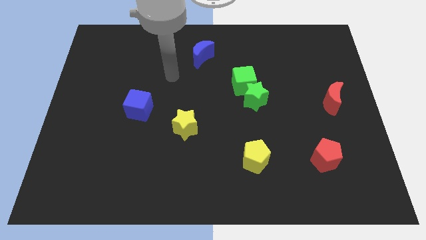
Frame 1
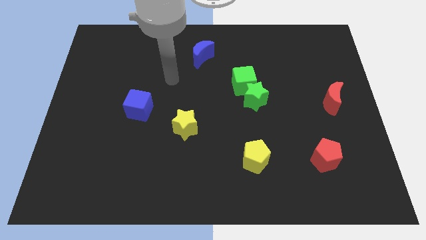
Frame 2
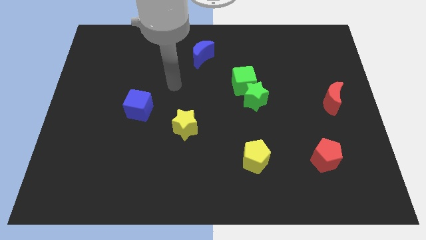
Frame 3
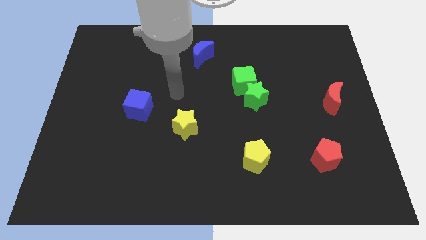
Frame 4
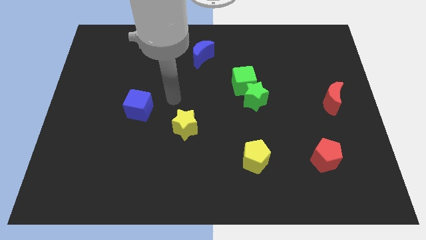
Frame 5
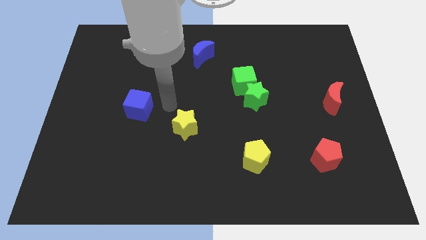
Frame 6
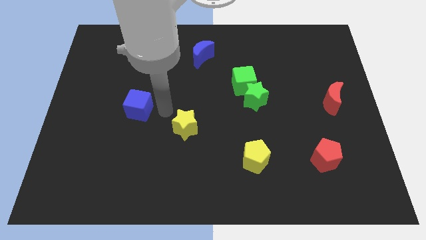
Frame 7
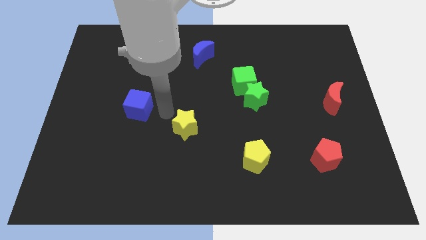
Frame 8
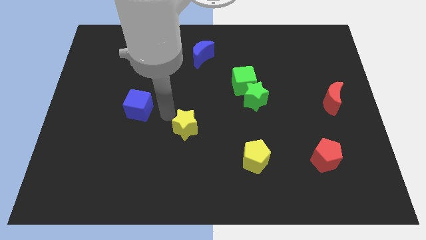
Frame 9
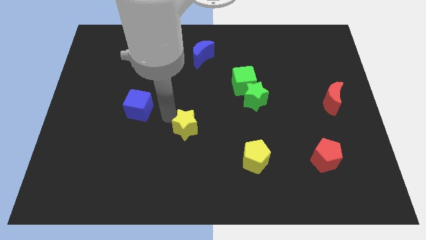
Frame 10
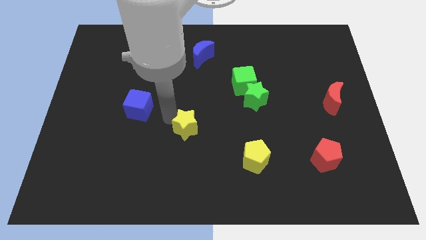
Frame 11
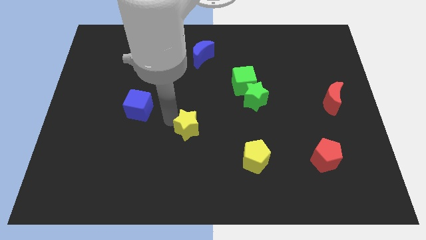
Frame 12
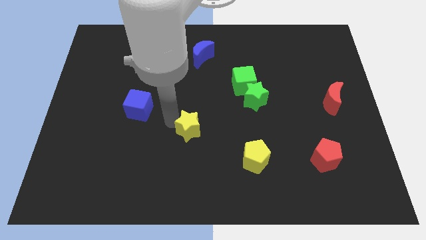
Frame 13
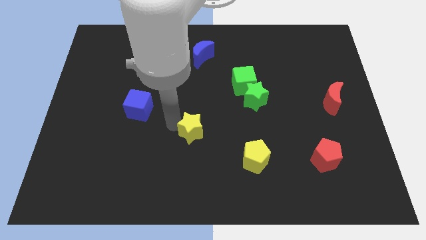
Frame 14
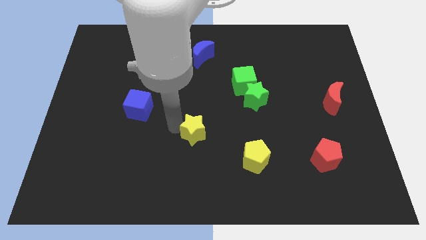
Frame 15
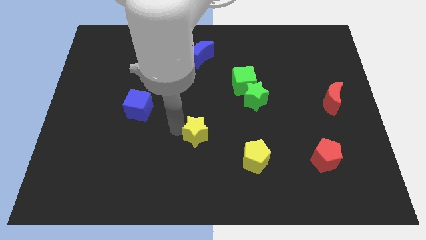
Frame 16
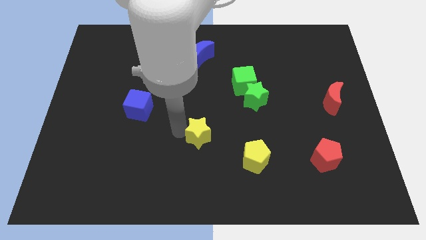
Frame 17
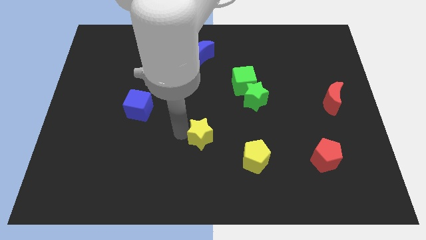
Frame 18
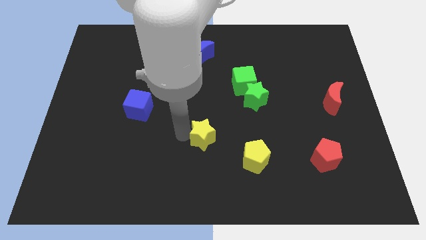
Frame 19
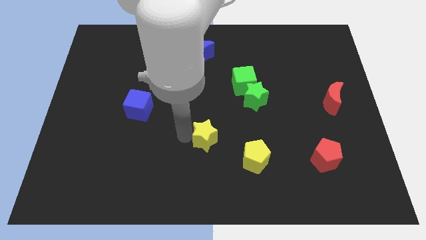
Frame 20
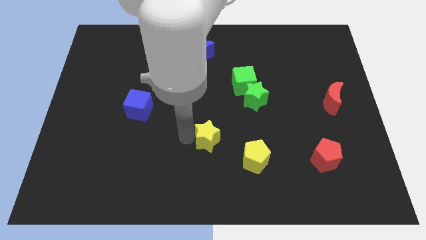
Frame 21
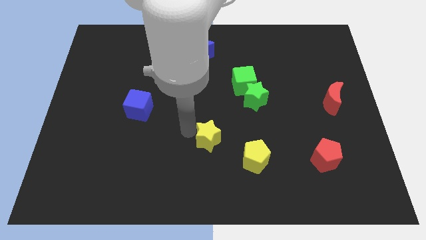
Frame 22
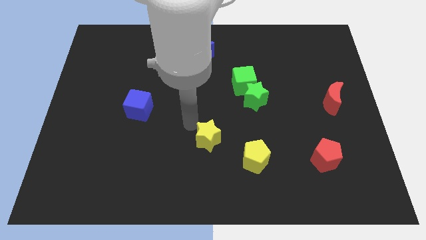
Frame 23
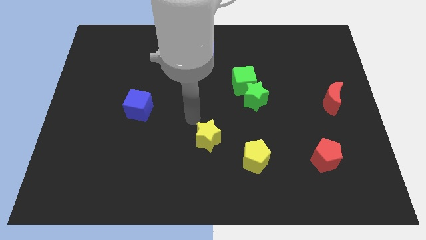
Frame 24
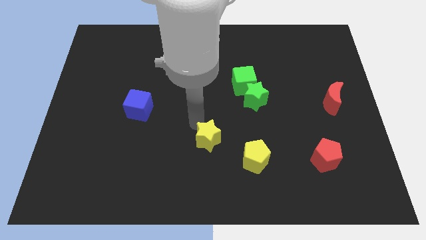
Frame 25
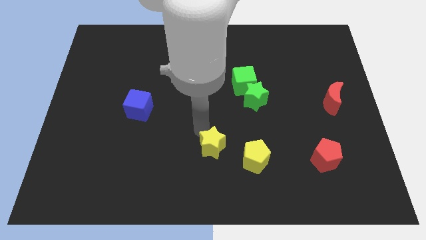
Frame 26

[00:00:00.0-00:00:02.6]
push the yellow star down and then to the right a little

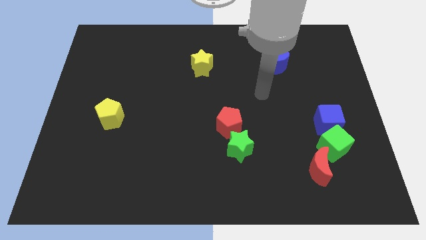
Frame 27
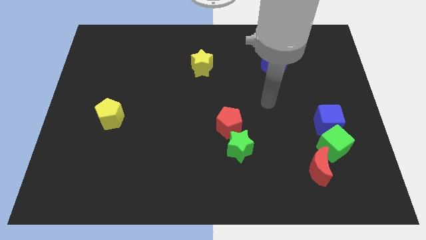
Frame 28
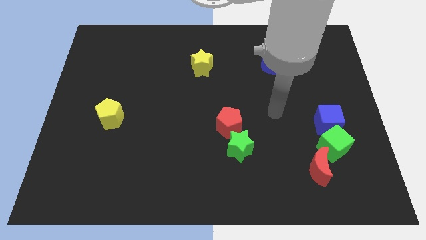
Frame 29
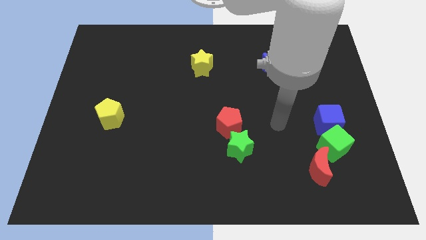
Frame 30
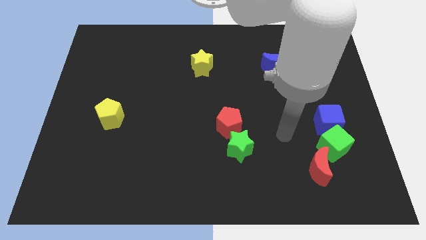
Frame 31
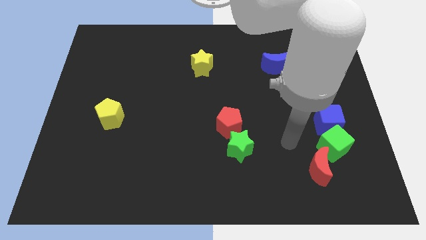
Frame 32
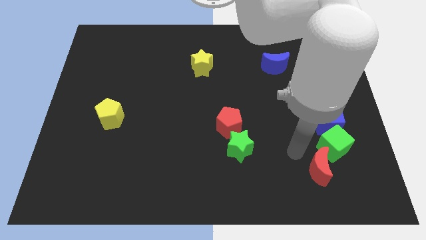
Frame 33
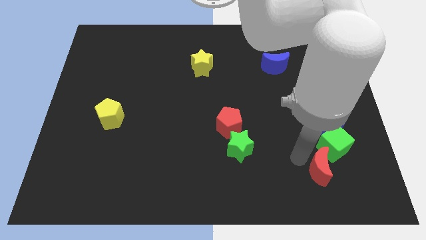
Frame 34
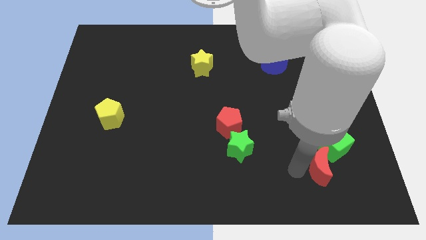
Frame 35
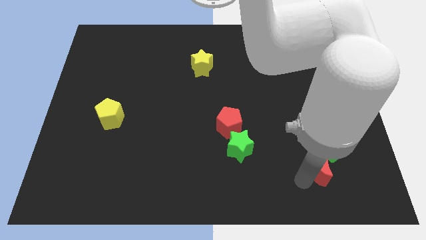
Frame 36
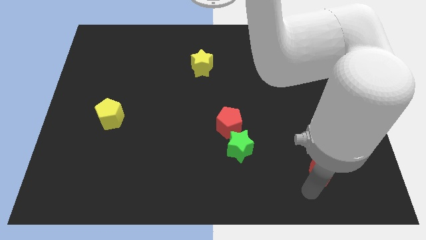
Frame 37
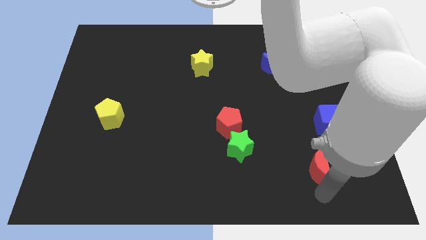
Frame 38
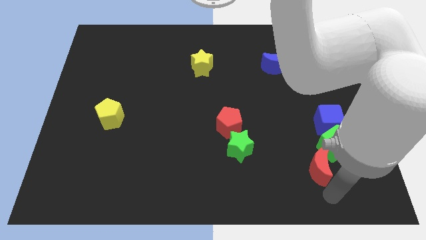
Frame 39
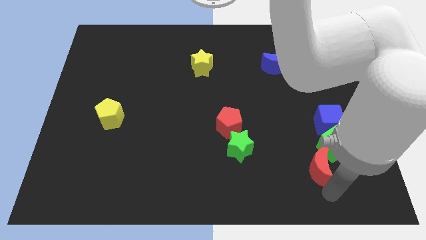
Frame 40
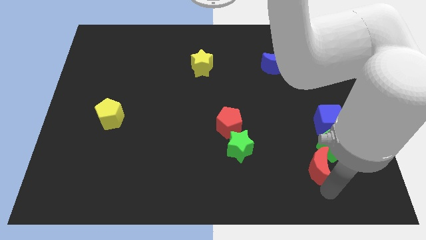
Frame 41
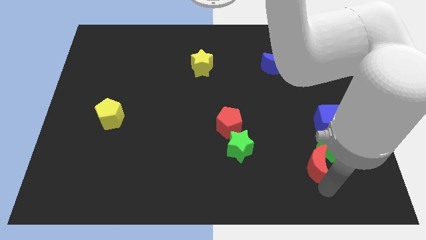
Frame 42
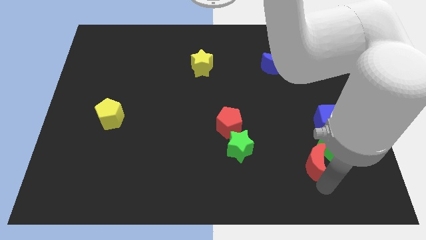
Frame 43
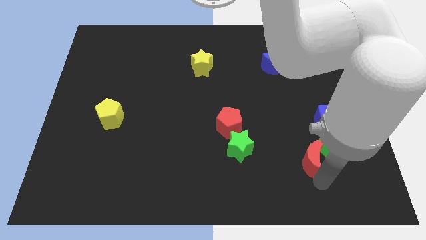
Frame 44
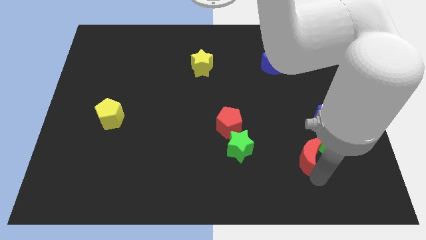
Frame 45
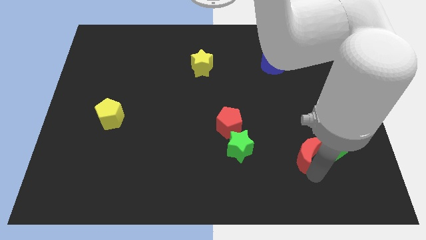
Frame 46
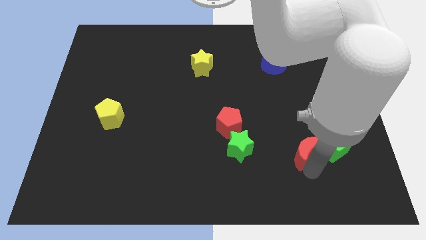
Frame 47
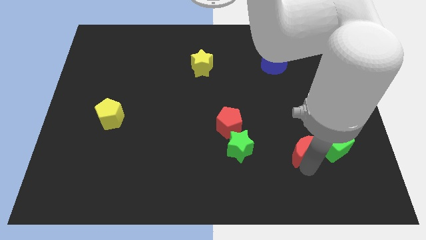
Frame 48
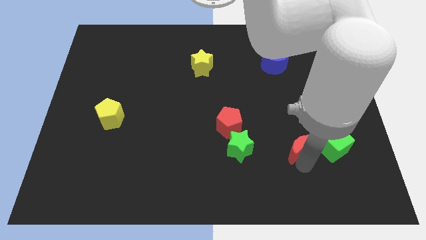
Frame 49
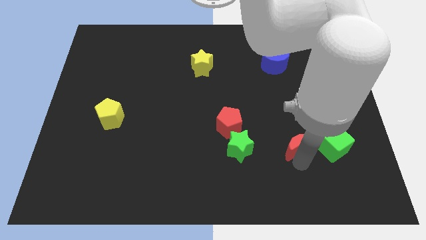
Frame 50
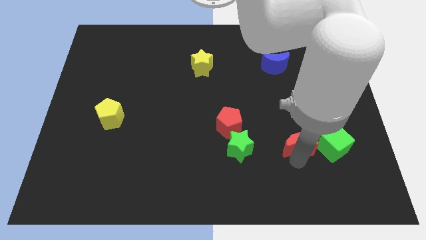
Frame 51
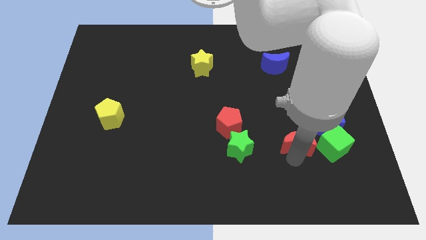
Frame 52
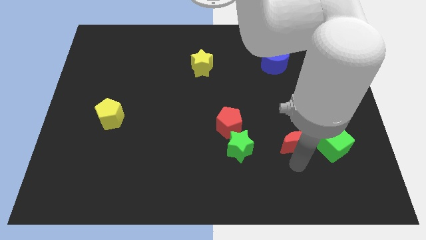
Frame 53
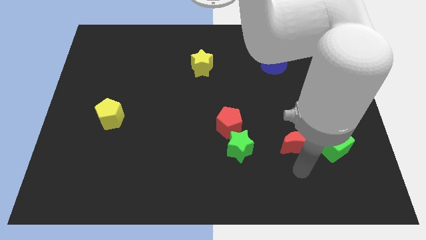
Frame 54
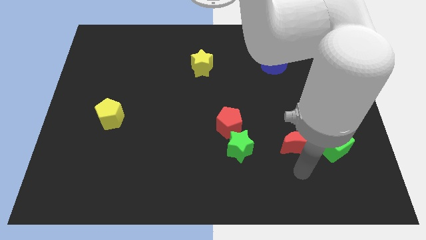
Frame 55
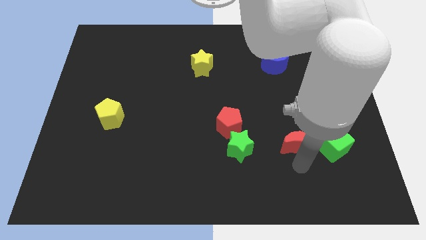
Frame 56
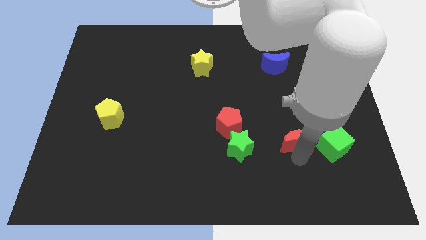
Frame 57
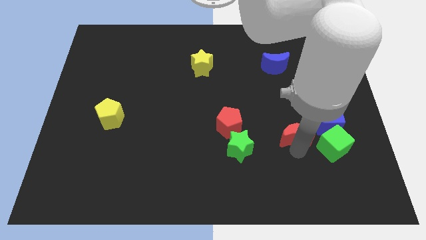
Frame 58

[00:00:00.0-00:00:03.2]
push the red moon a little bit upwards

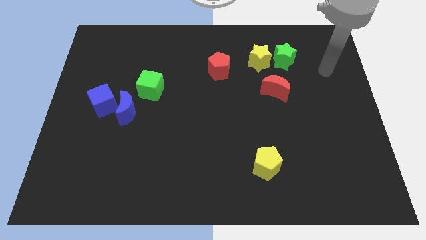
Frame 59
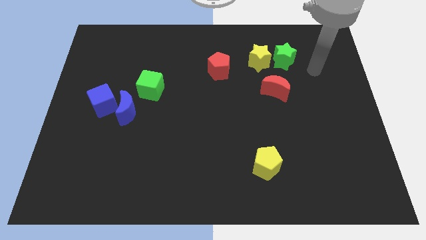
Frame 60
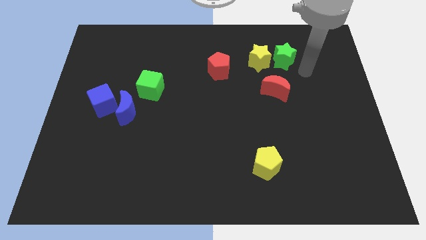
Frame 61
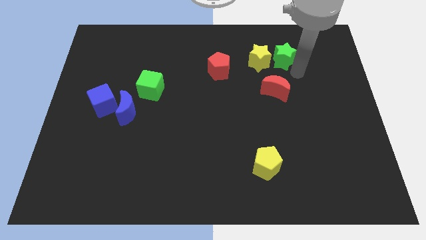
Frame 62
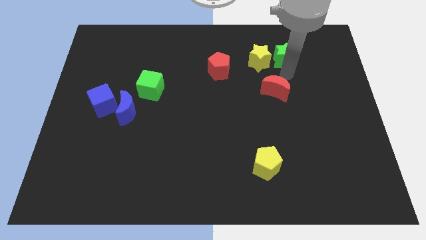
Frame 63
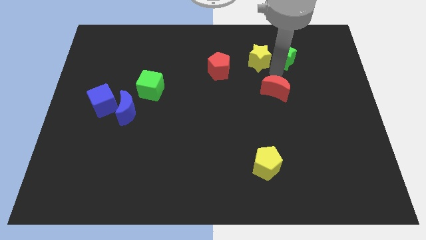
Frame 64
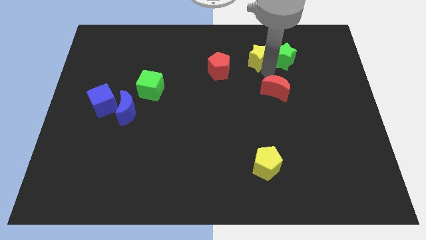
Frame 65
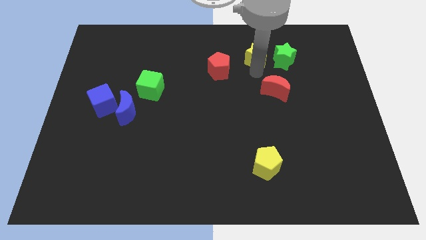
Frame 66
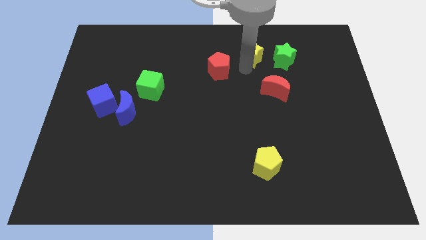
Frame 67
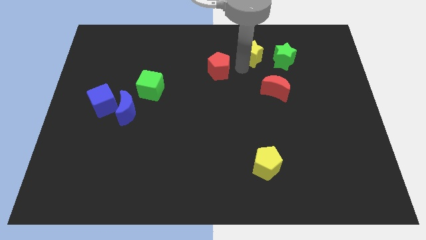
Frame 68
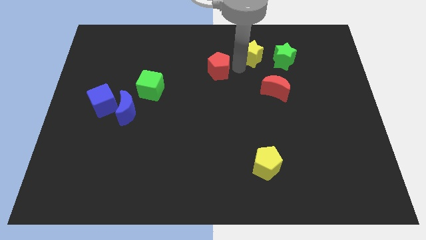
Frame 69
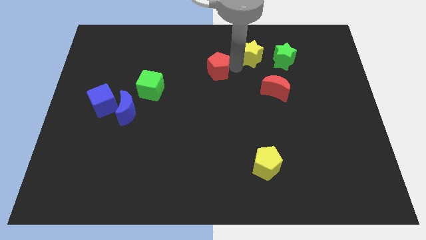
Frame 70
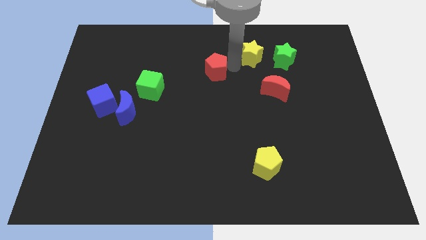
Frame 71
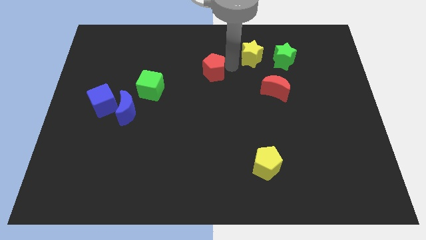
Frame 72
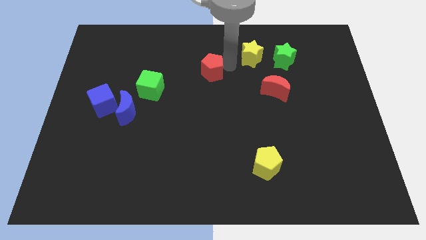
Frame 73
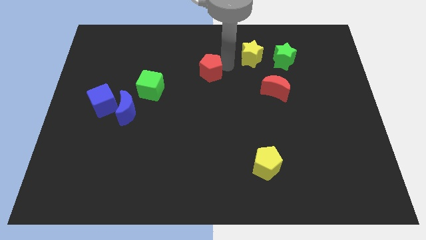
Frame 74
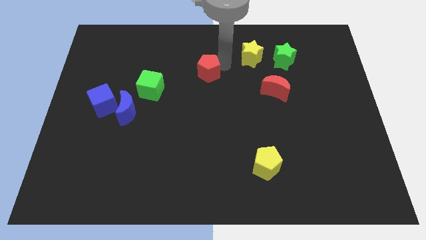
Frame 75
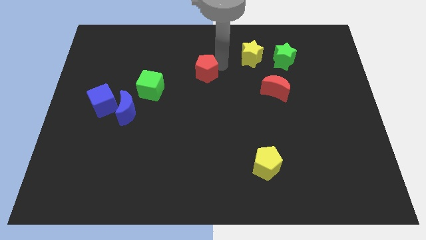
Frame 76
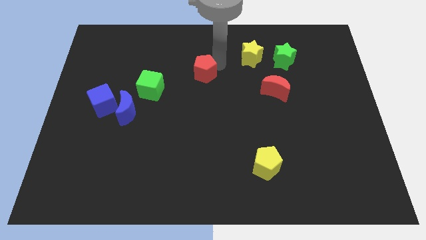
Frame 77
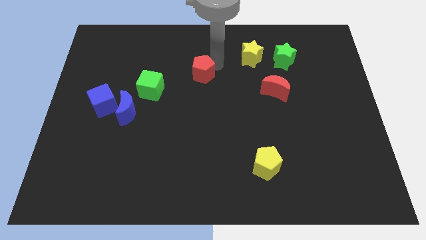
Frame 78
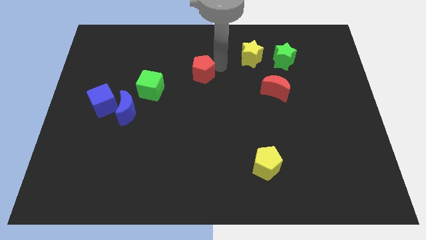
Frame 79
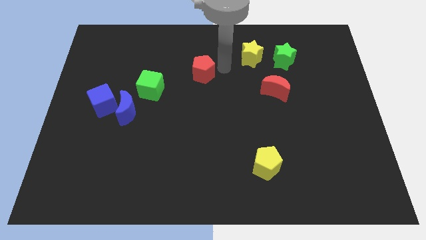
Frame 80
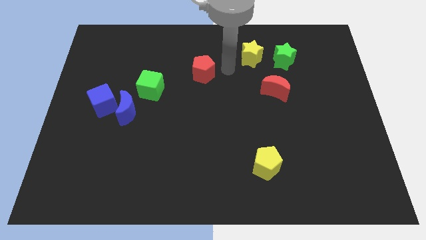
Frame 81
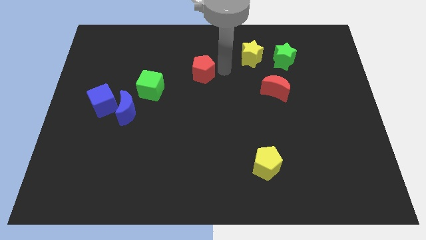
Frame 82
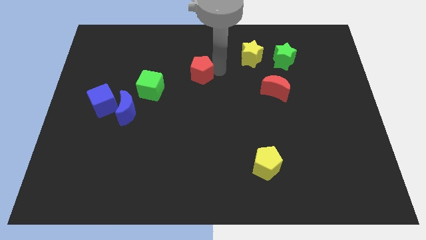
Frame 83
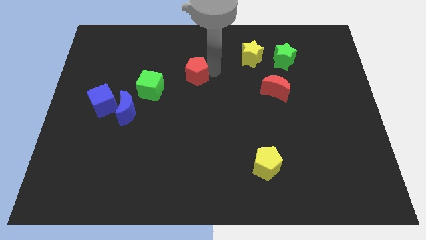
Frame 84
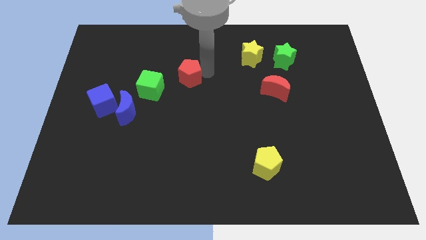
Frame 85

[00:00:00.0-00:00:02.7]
push the red pentagon left a bit
